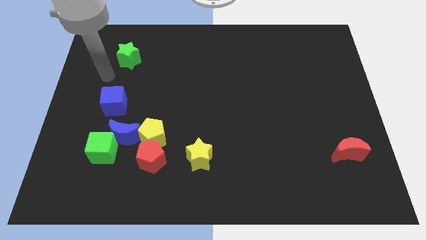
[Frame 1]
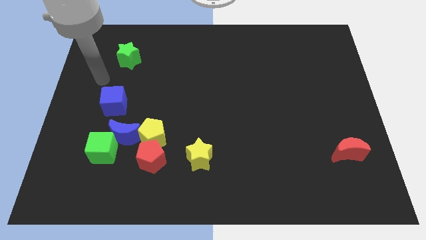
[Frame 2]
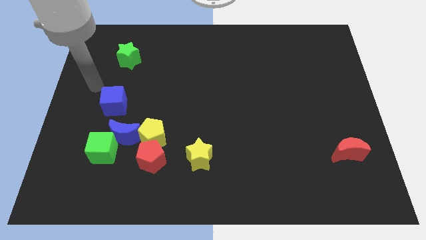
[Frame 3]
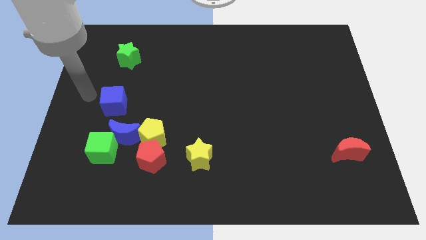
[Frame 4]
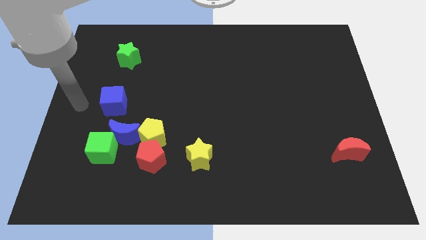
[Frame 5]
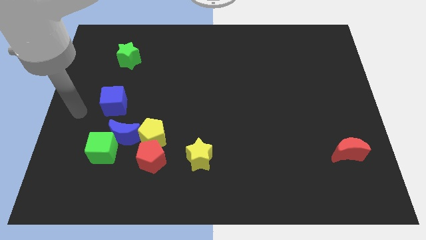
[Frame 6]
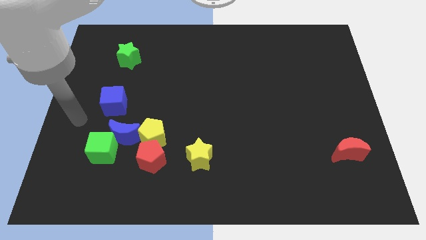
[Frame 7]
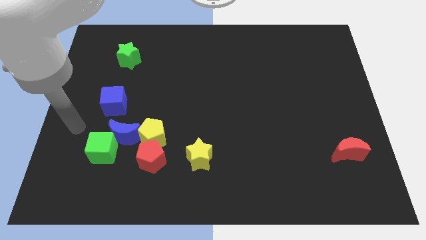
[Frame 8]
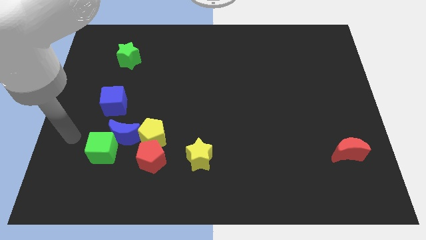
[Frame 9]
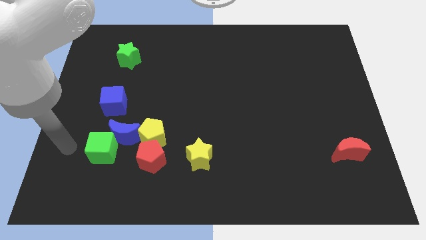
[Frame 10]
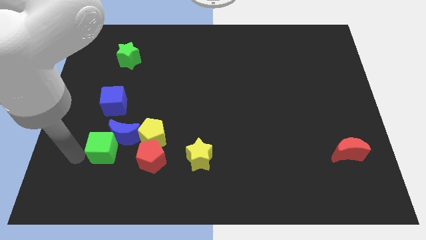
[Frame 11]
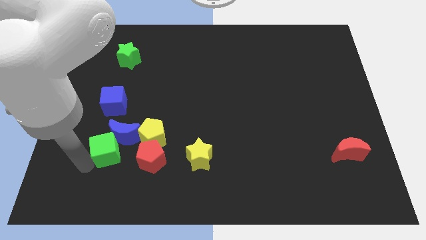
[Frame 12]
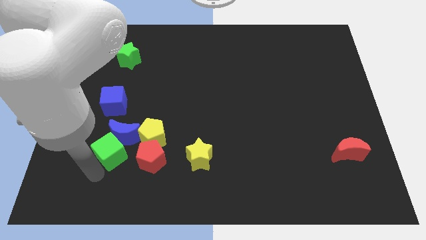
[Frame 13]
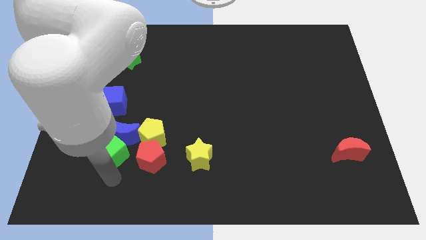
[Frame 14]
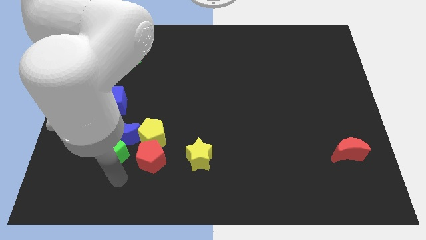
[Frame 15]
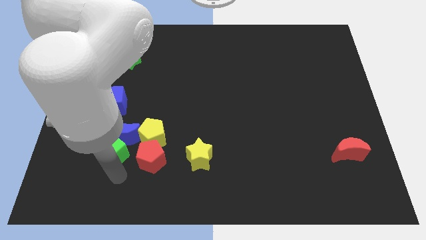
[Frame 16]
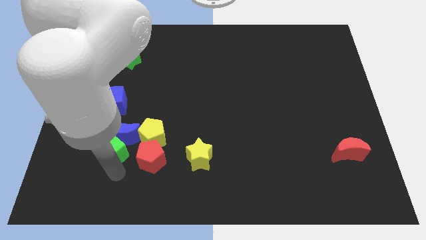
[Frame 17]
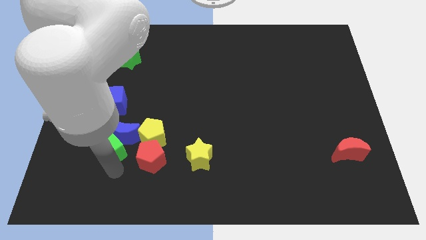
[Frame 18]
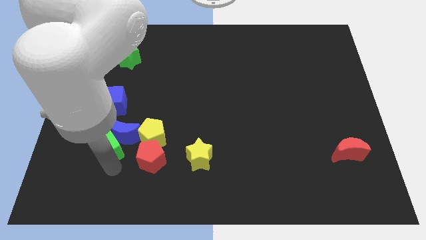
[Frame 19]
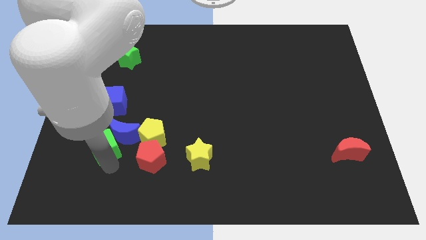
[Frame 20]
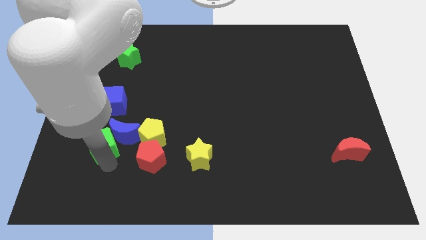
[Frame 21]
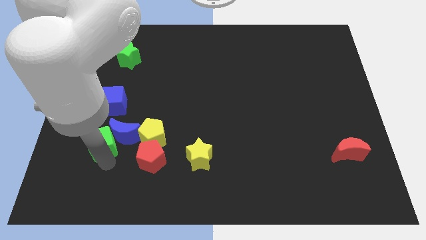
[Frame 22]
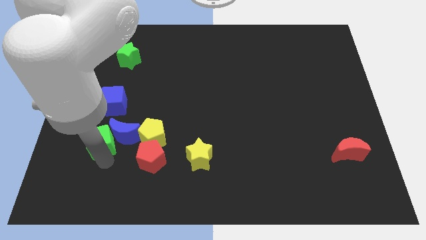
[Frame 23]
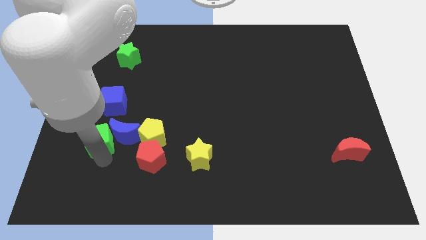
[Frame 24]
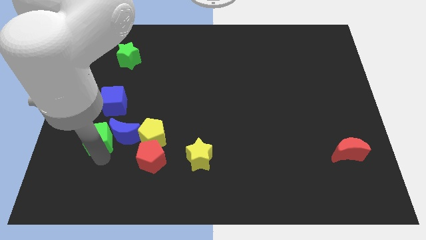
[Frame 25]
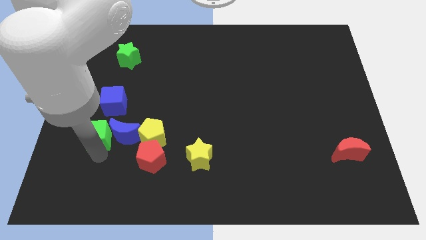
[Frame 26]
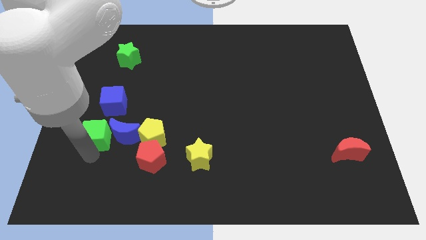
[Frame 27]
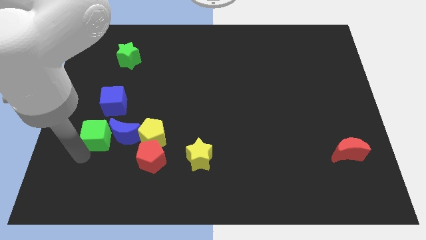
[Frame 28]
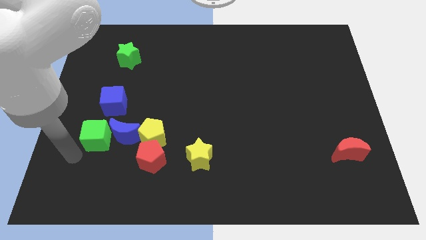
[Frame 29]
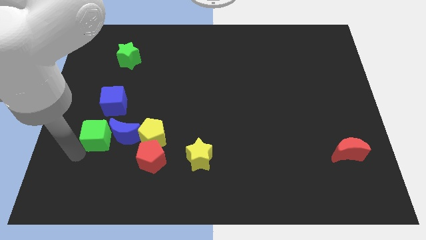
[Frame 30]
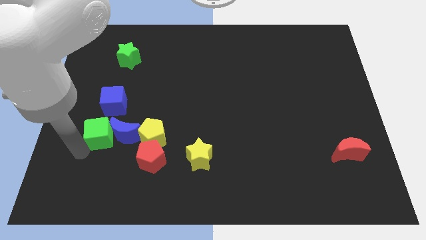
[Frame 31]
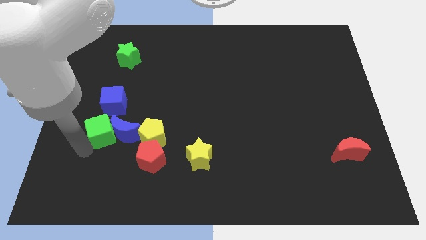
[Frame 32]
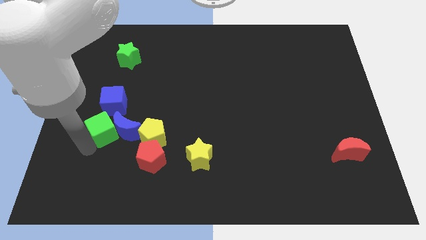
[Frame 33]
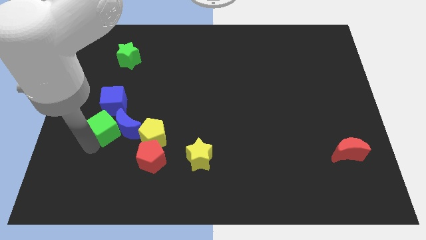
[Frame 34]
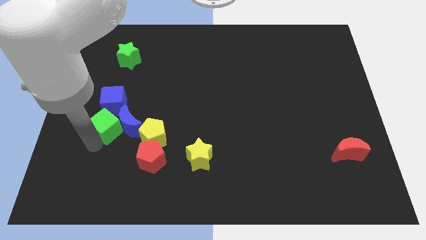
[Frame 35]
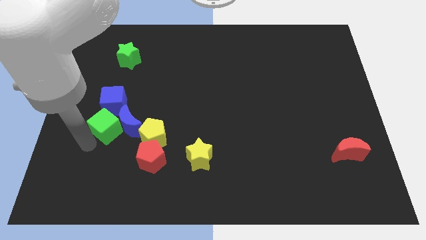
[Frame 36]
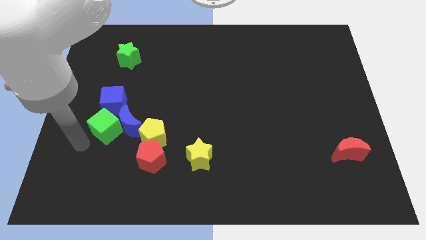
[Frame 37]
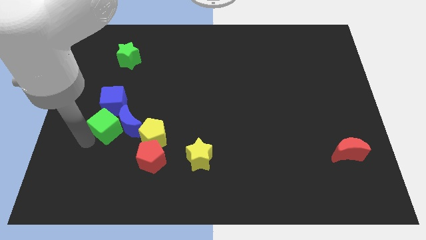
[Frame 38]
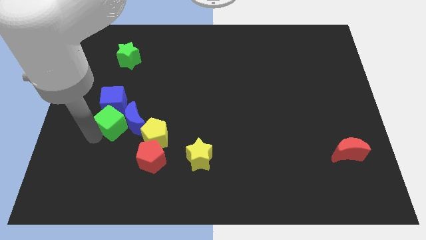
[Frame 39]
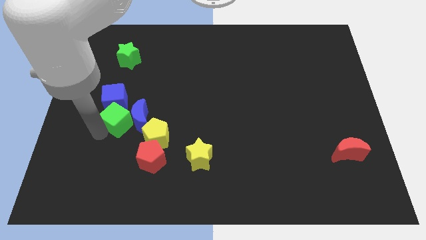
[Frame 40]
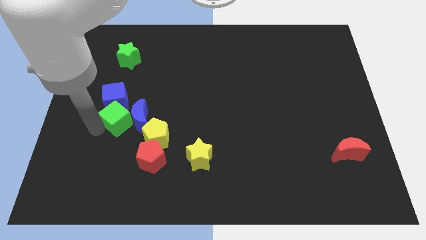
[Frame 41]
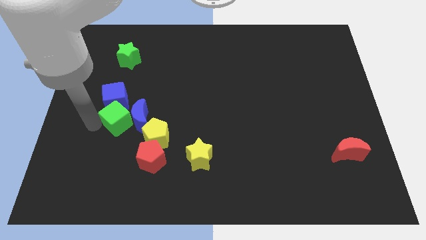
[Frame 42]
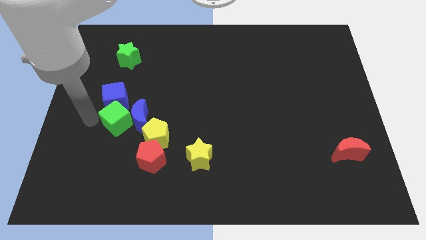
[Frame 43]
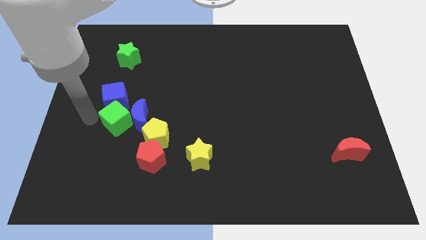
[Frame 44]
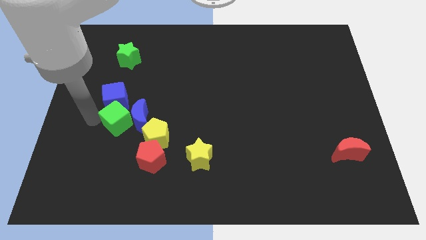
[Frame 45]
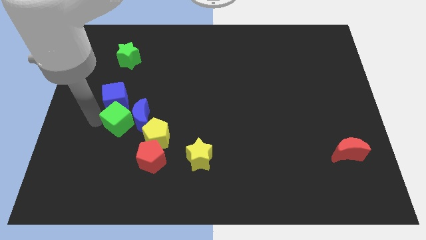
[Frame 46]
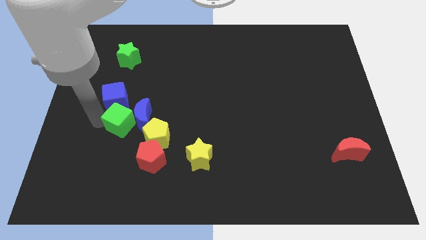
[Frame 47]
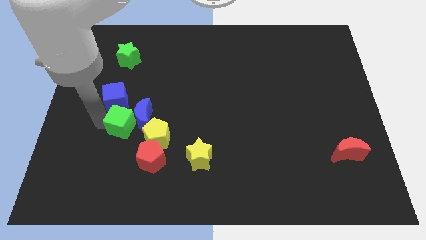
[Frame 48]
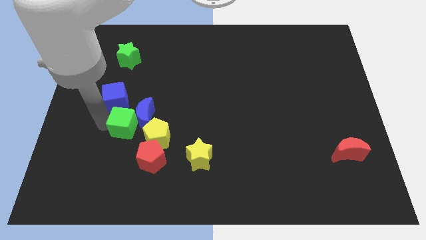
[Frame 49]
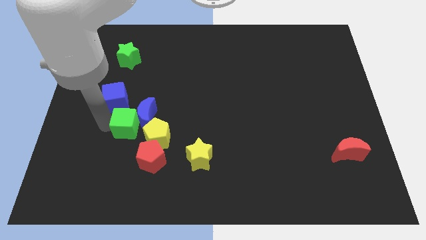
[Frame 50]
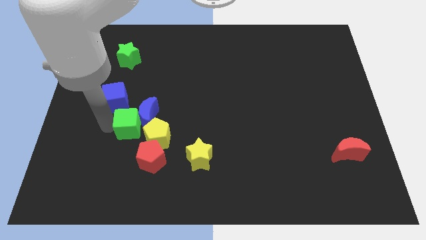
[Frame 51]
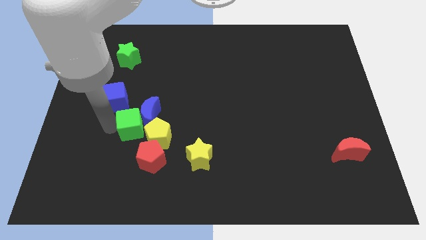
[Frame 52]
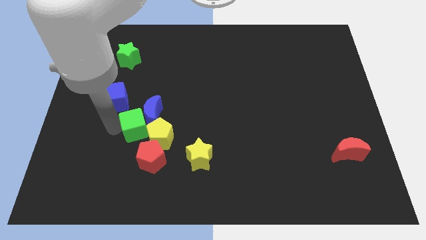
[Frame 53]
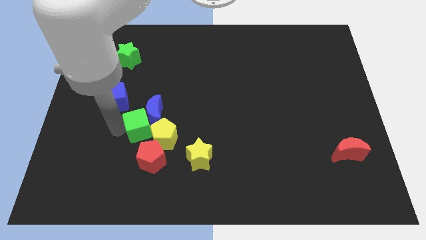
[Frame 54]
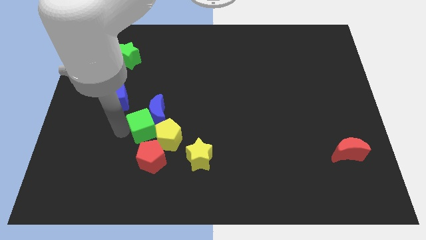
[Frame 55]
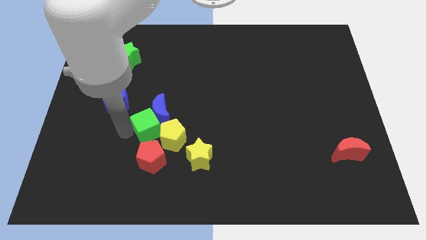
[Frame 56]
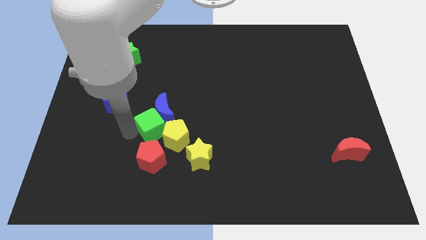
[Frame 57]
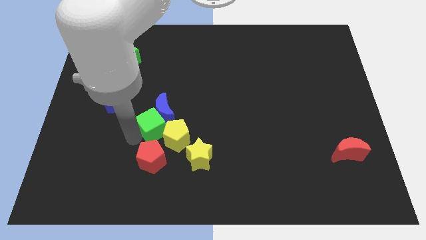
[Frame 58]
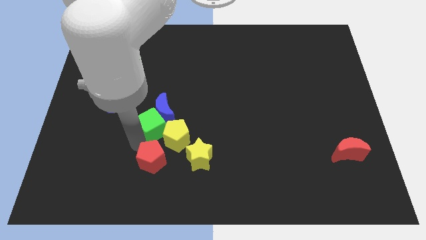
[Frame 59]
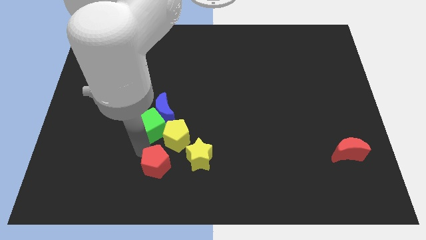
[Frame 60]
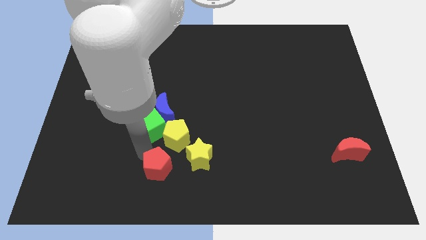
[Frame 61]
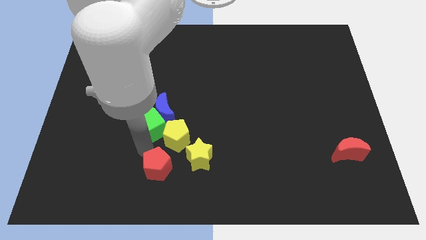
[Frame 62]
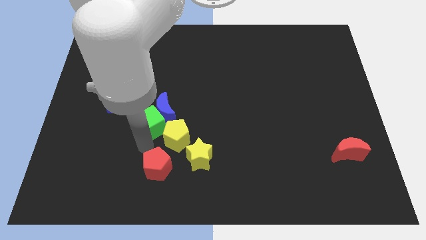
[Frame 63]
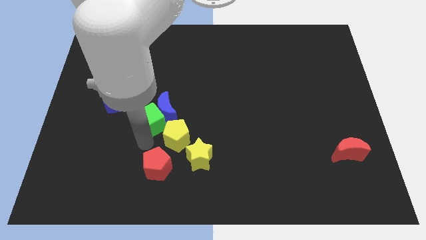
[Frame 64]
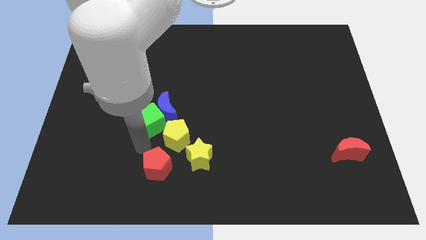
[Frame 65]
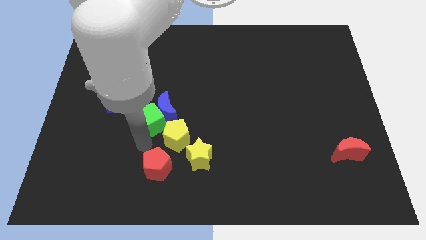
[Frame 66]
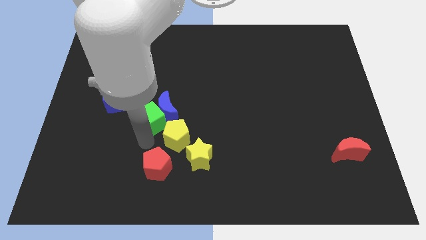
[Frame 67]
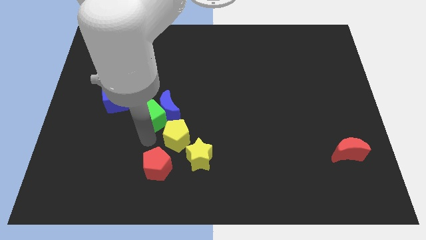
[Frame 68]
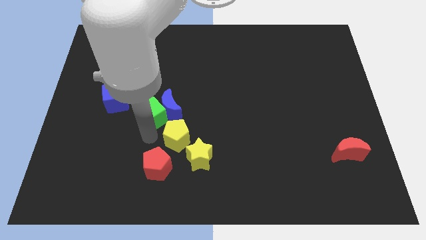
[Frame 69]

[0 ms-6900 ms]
put the green cube right of the blue cube
